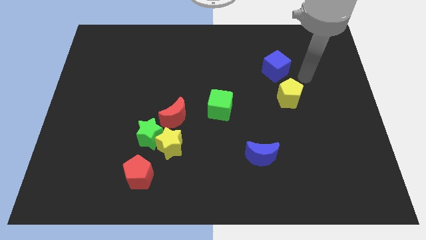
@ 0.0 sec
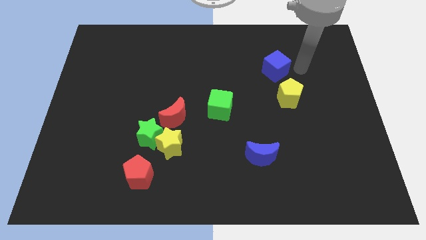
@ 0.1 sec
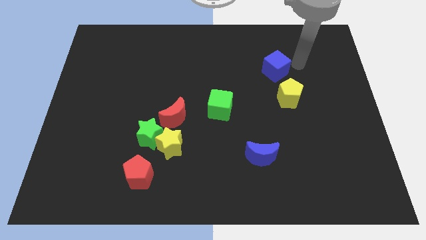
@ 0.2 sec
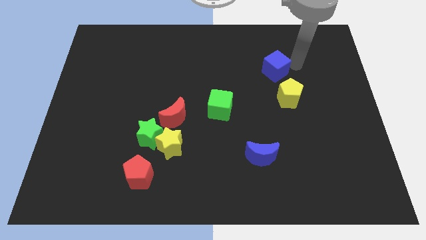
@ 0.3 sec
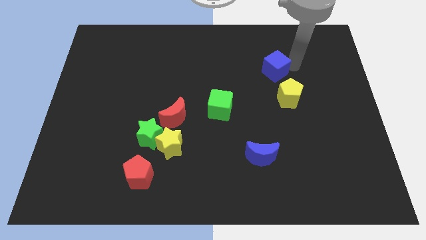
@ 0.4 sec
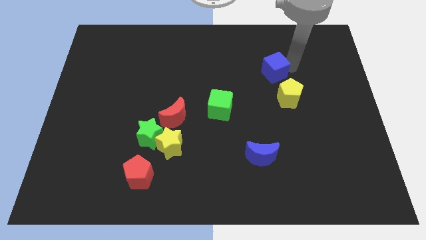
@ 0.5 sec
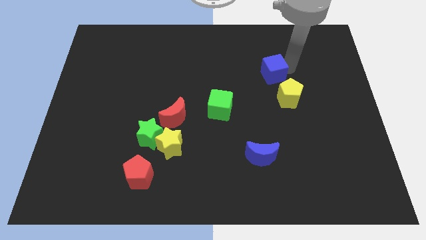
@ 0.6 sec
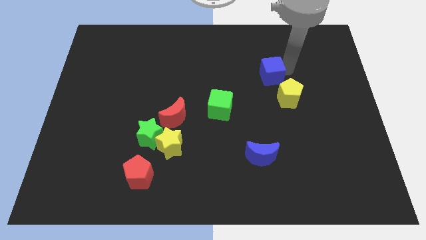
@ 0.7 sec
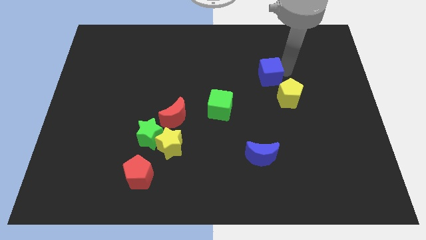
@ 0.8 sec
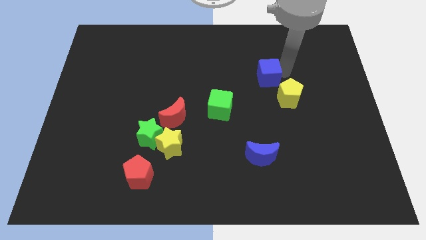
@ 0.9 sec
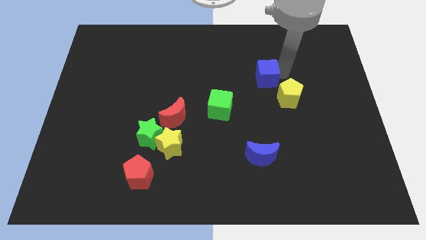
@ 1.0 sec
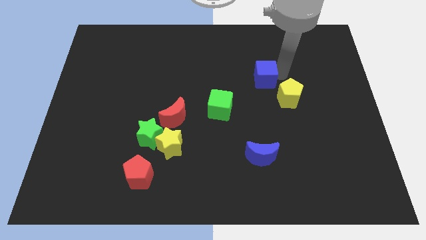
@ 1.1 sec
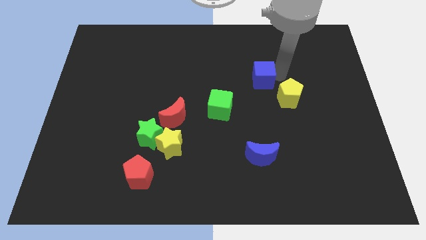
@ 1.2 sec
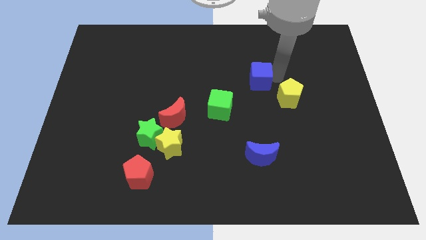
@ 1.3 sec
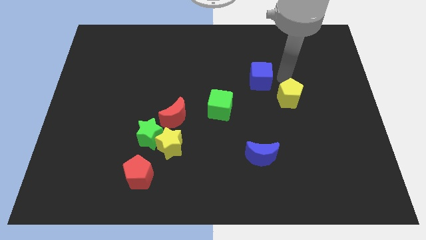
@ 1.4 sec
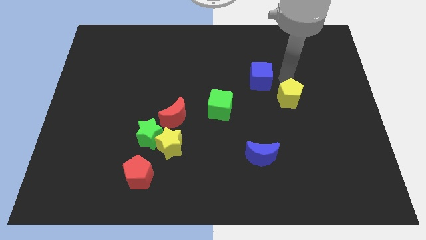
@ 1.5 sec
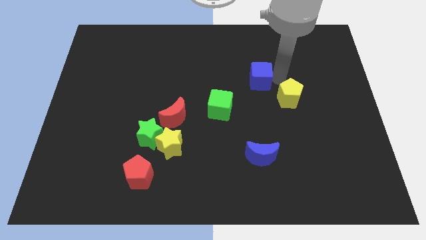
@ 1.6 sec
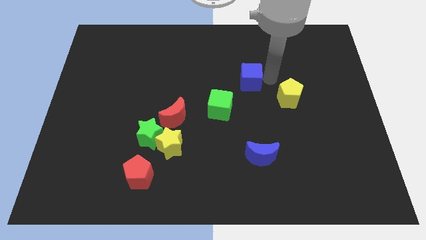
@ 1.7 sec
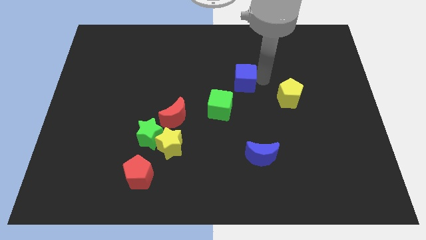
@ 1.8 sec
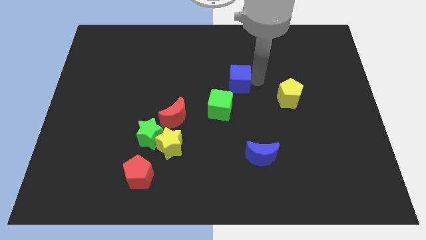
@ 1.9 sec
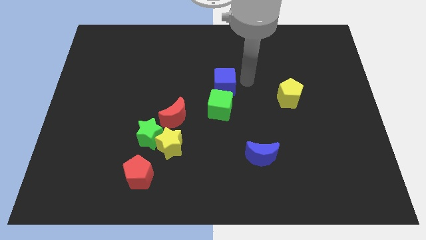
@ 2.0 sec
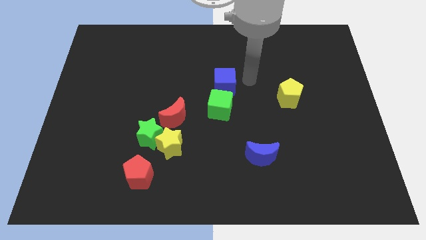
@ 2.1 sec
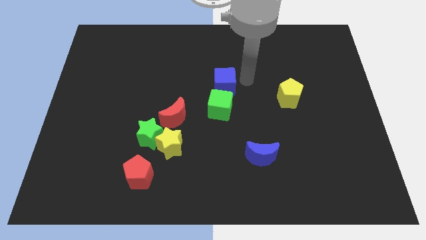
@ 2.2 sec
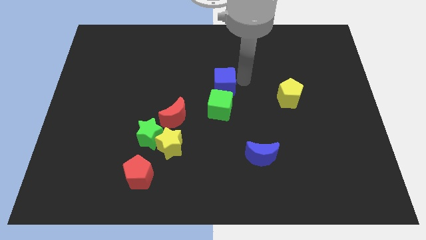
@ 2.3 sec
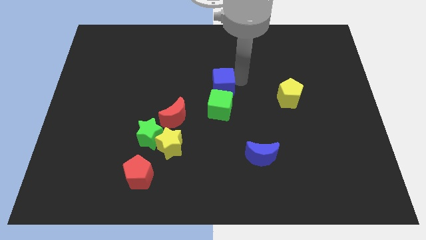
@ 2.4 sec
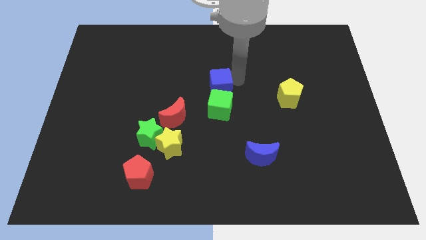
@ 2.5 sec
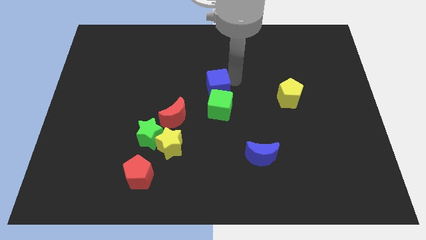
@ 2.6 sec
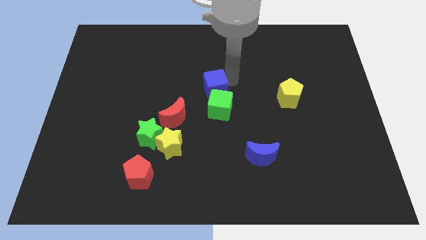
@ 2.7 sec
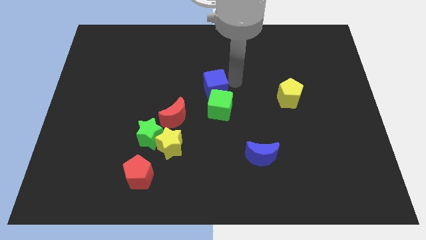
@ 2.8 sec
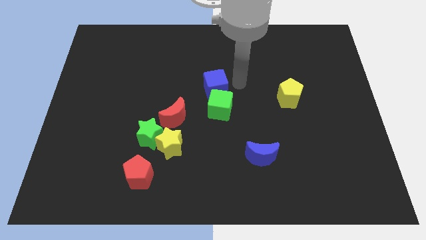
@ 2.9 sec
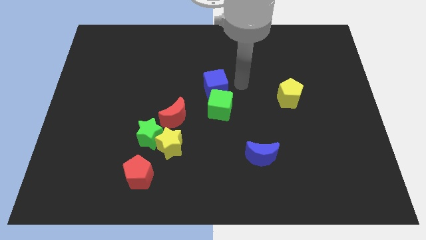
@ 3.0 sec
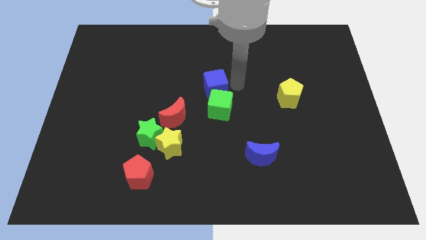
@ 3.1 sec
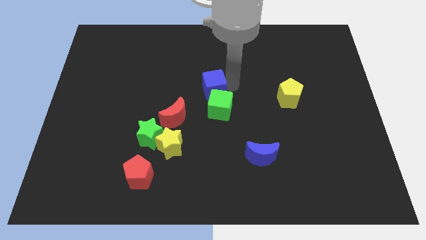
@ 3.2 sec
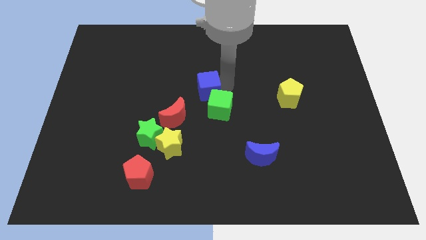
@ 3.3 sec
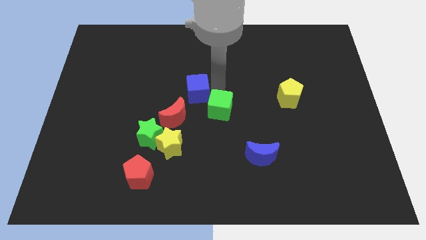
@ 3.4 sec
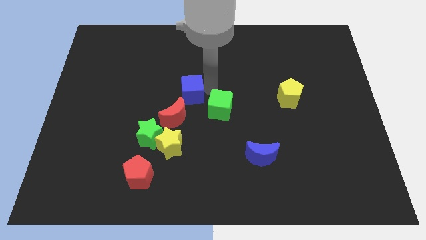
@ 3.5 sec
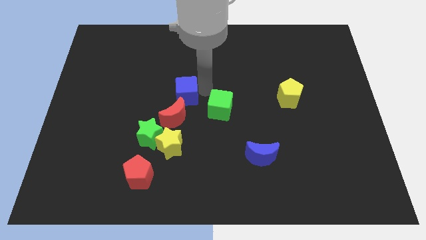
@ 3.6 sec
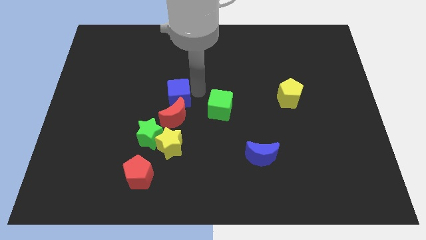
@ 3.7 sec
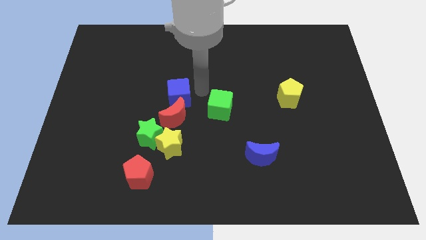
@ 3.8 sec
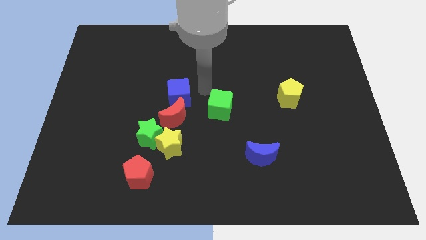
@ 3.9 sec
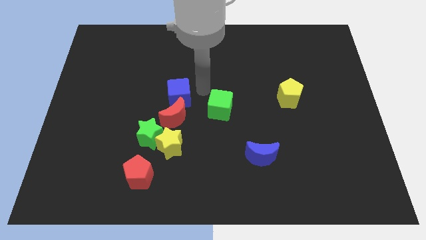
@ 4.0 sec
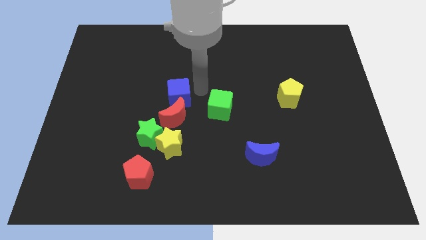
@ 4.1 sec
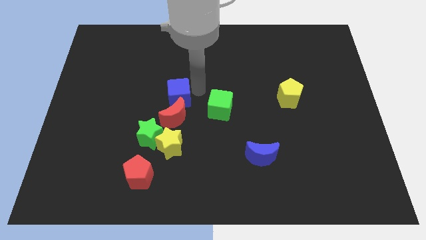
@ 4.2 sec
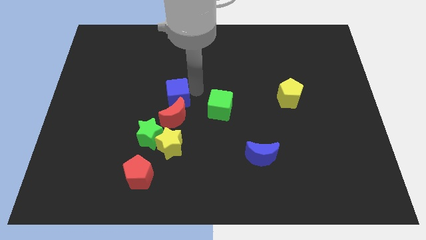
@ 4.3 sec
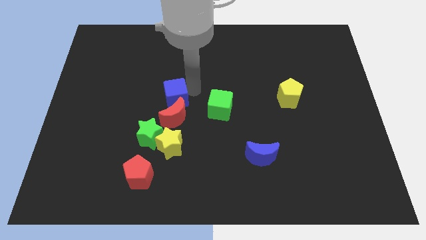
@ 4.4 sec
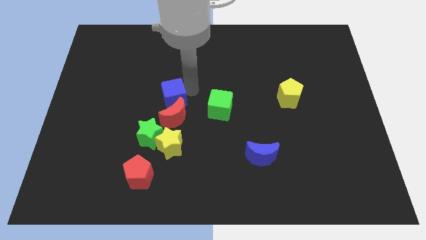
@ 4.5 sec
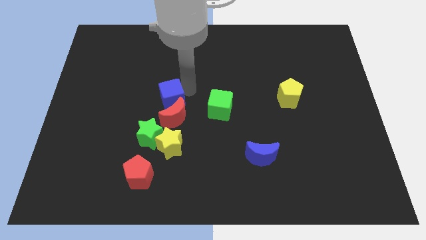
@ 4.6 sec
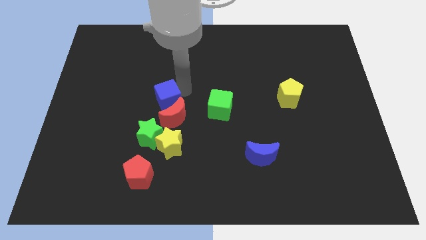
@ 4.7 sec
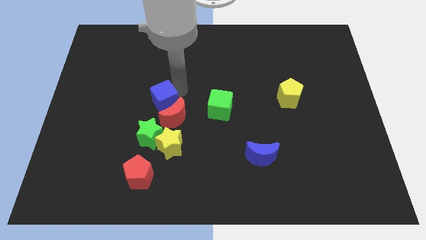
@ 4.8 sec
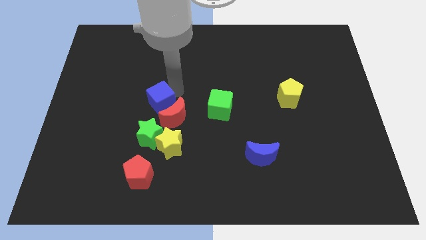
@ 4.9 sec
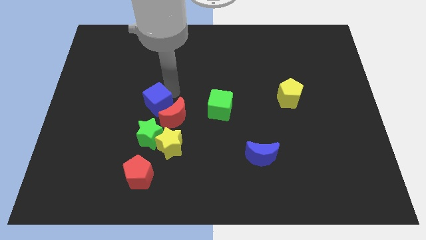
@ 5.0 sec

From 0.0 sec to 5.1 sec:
put the blue cube to the left of the red moon

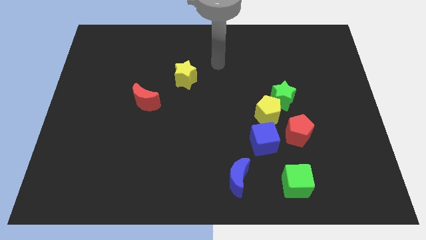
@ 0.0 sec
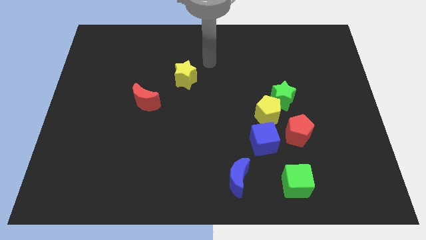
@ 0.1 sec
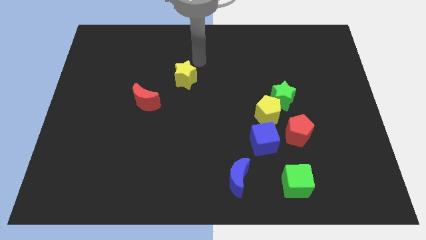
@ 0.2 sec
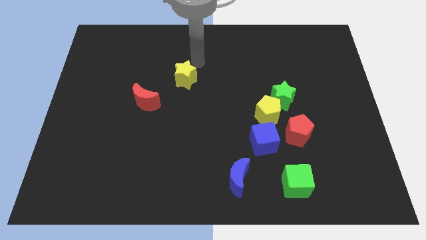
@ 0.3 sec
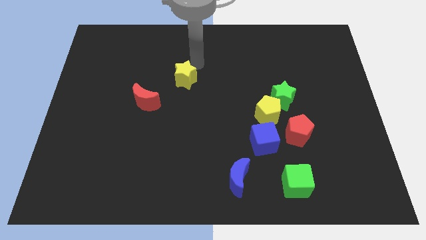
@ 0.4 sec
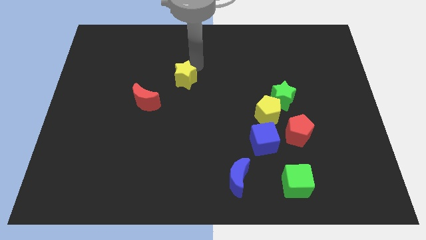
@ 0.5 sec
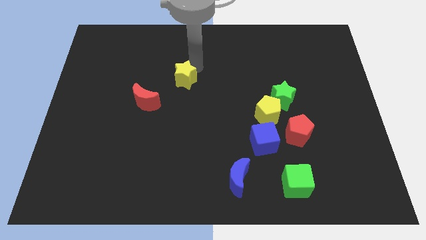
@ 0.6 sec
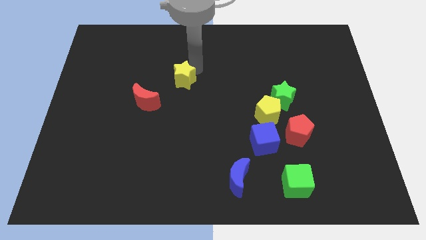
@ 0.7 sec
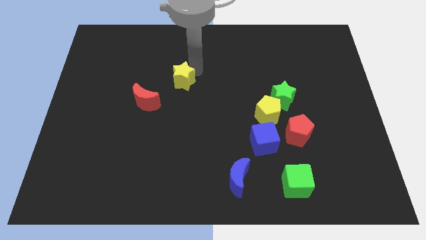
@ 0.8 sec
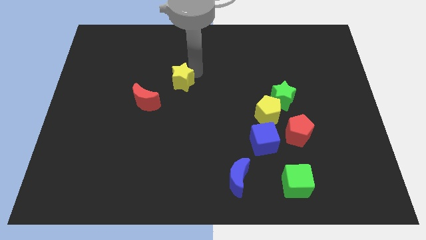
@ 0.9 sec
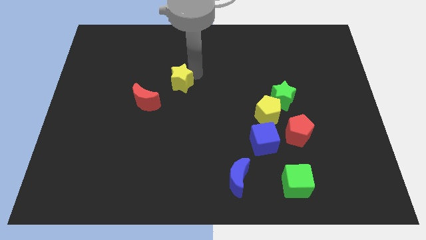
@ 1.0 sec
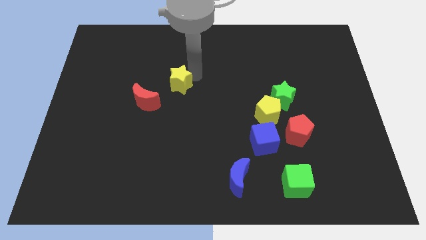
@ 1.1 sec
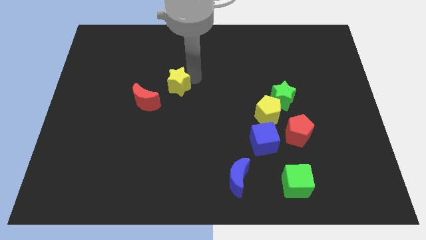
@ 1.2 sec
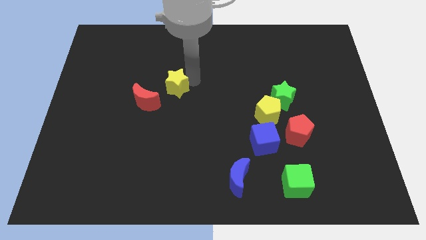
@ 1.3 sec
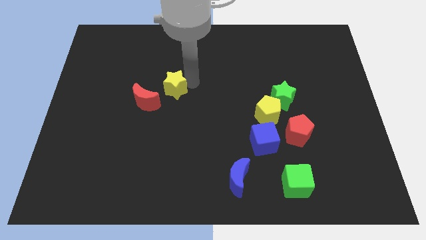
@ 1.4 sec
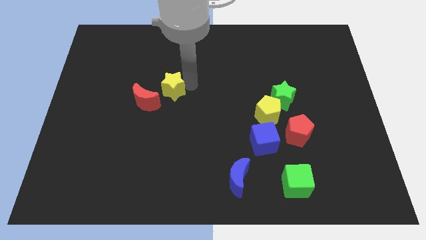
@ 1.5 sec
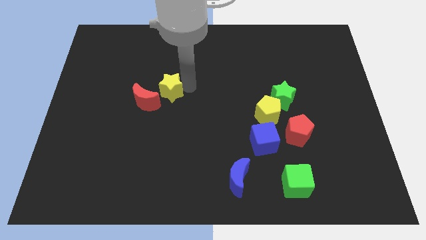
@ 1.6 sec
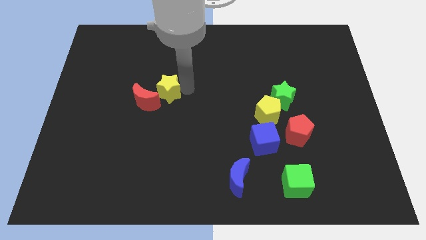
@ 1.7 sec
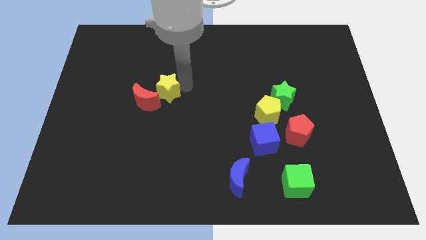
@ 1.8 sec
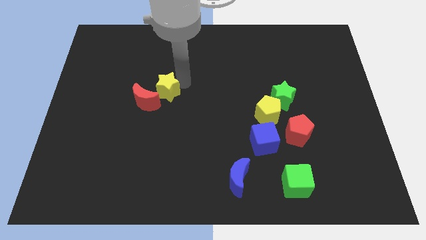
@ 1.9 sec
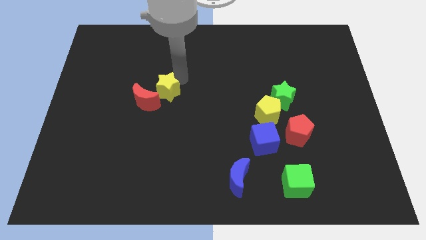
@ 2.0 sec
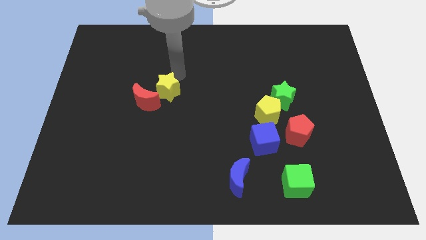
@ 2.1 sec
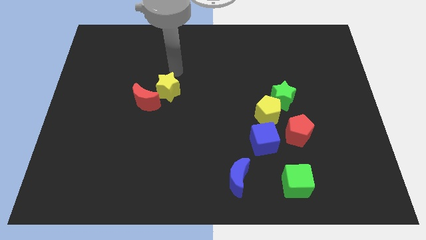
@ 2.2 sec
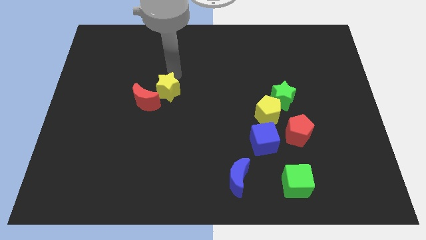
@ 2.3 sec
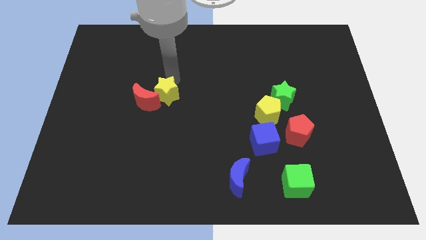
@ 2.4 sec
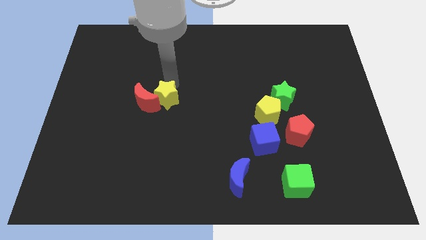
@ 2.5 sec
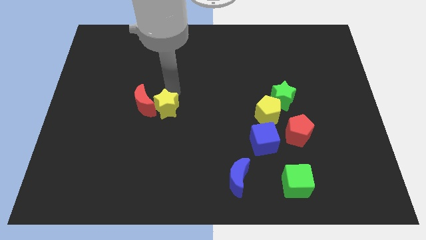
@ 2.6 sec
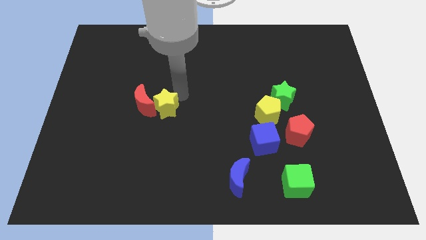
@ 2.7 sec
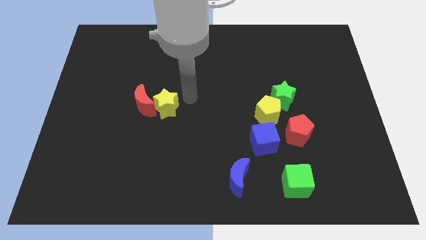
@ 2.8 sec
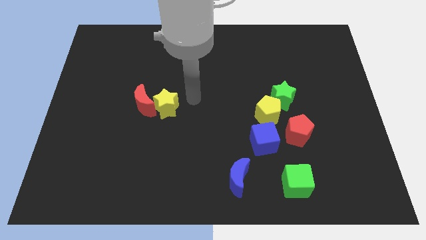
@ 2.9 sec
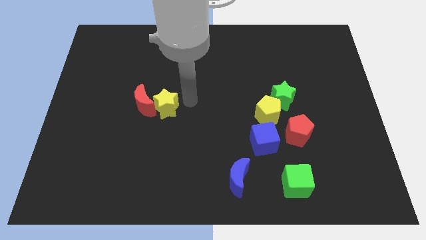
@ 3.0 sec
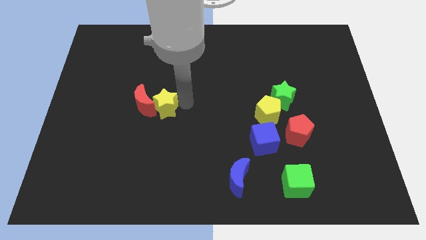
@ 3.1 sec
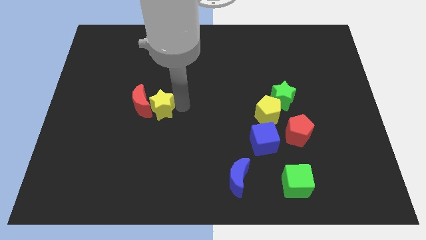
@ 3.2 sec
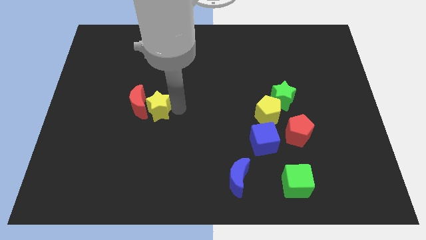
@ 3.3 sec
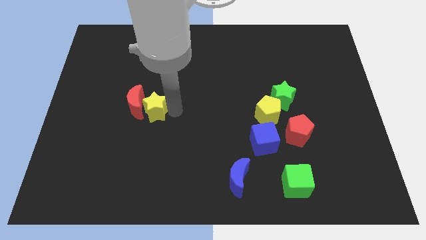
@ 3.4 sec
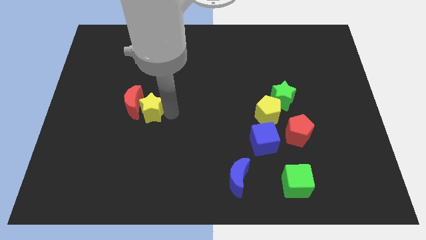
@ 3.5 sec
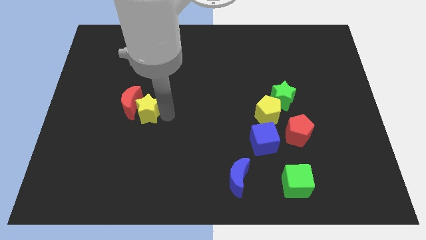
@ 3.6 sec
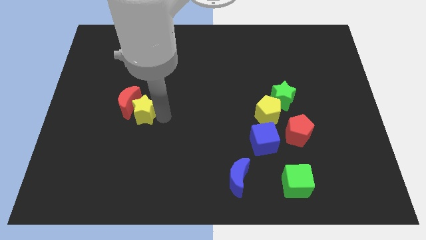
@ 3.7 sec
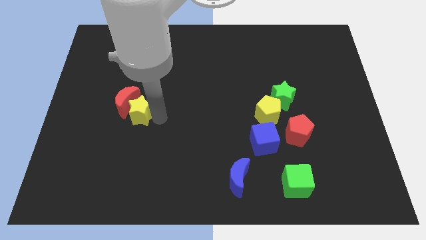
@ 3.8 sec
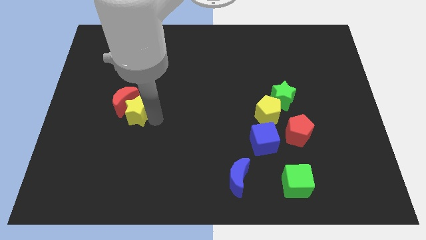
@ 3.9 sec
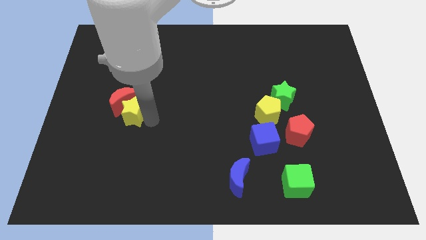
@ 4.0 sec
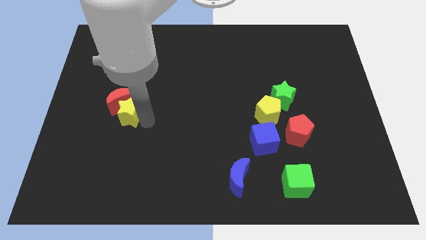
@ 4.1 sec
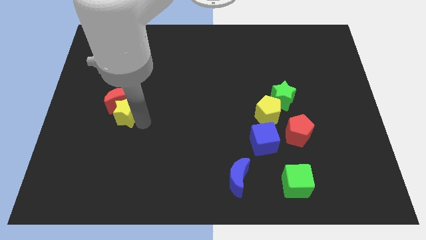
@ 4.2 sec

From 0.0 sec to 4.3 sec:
put the yellow star to the bottom left side of the red moon
